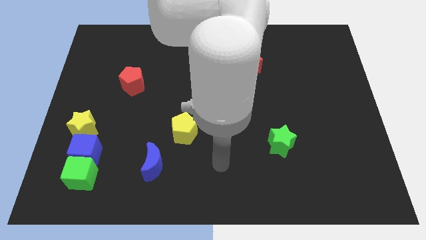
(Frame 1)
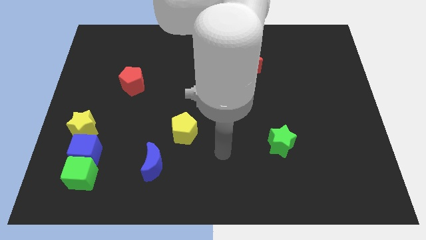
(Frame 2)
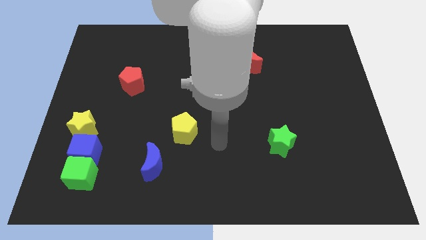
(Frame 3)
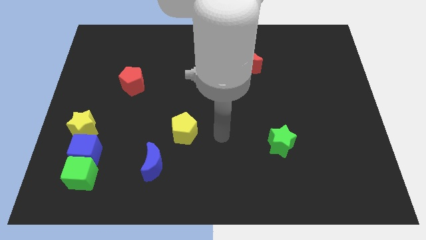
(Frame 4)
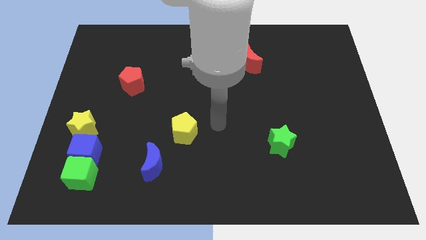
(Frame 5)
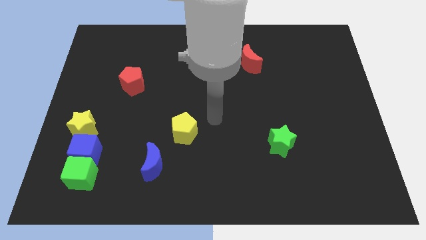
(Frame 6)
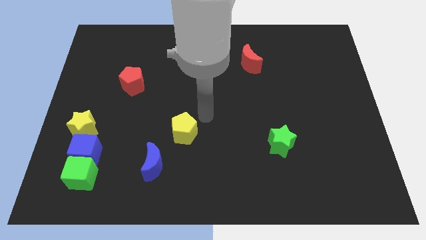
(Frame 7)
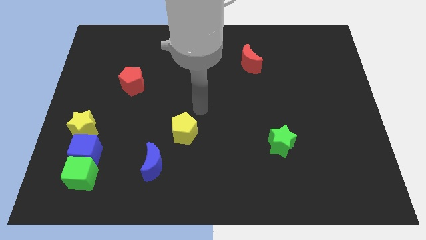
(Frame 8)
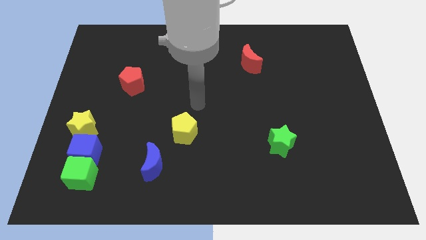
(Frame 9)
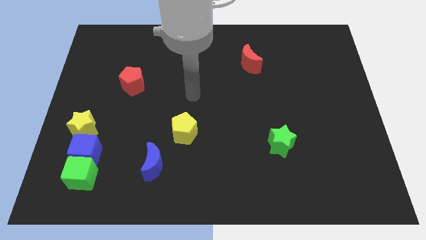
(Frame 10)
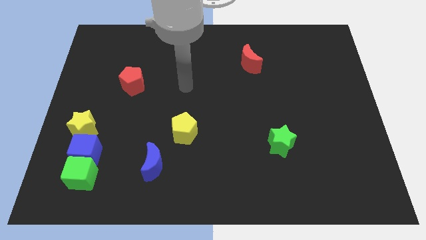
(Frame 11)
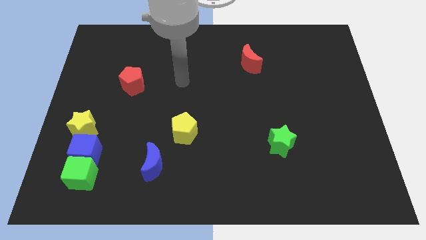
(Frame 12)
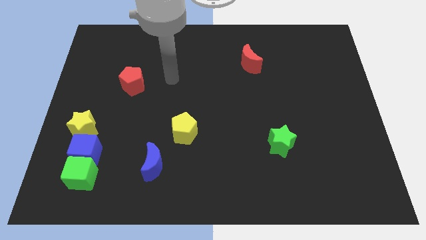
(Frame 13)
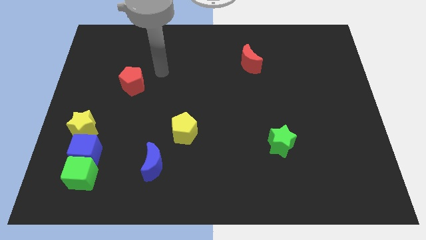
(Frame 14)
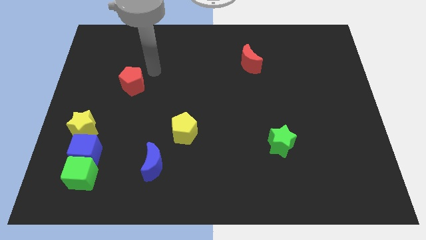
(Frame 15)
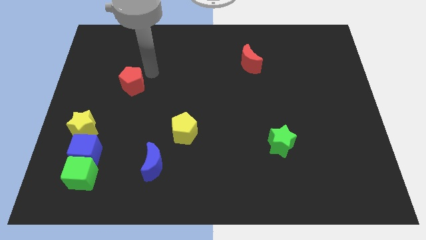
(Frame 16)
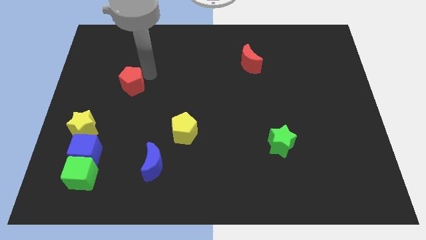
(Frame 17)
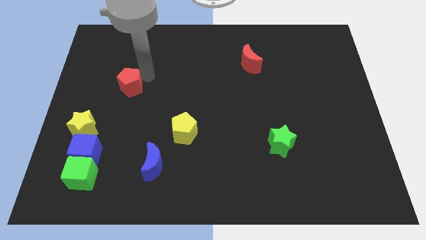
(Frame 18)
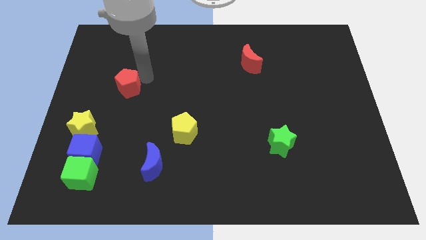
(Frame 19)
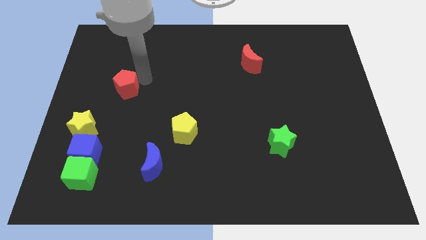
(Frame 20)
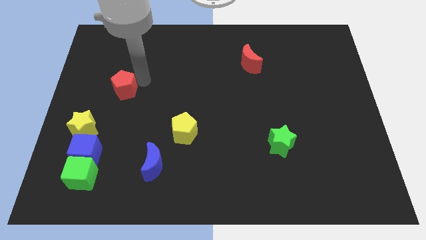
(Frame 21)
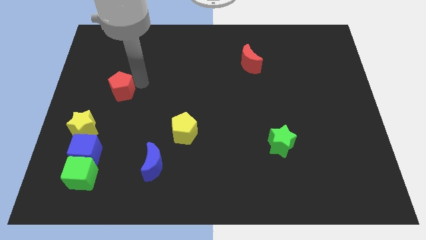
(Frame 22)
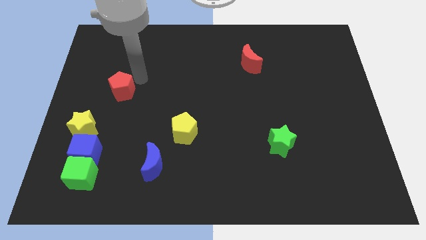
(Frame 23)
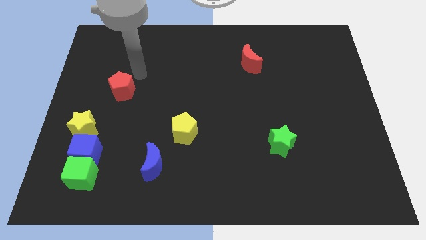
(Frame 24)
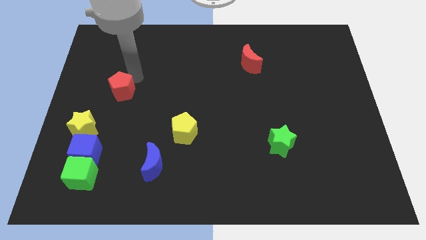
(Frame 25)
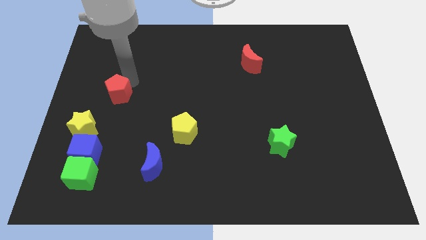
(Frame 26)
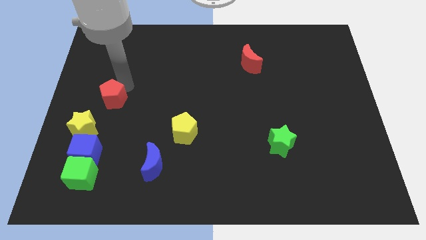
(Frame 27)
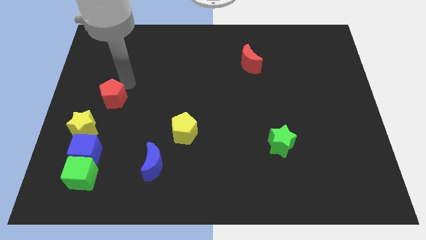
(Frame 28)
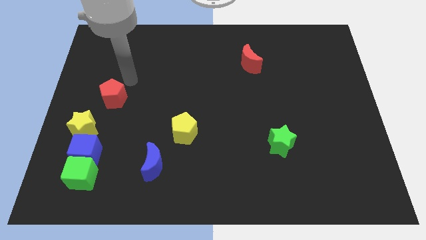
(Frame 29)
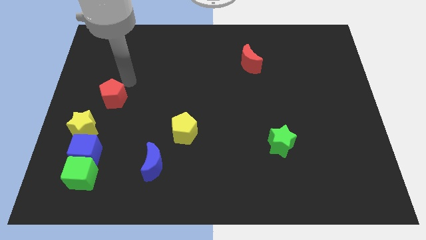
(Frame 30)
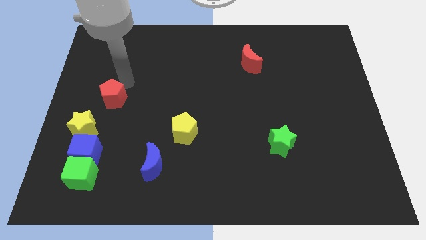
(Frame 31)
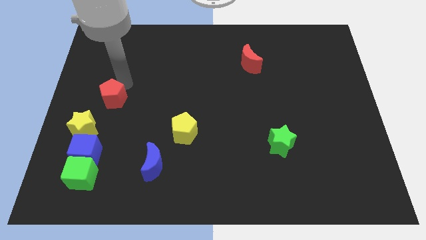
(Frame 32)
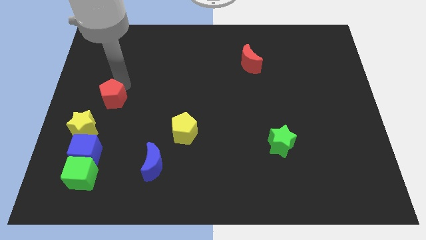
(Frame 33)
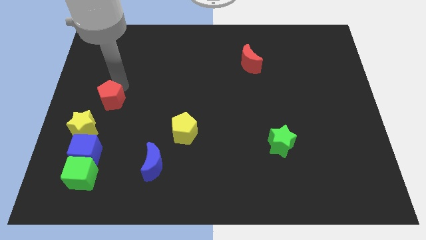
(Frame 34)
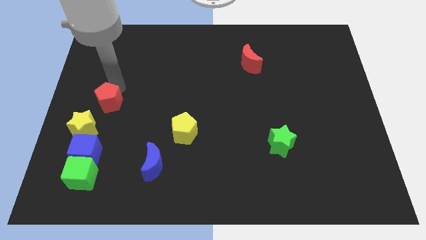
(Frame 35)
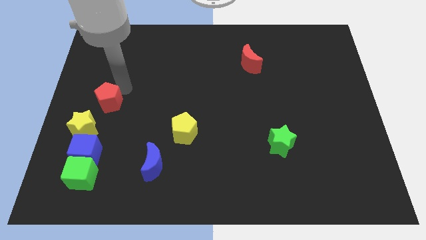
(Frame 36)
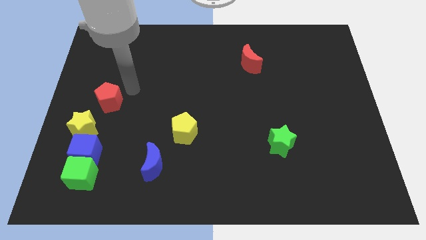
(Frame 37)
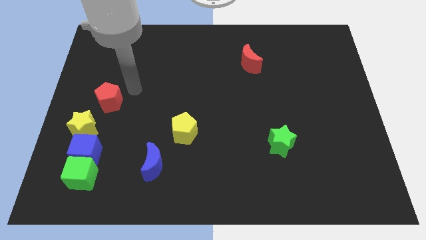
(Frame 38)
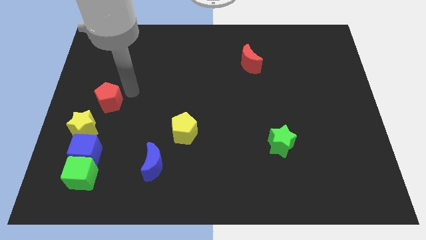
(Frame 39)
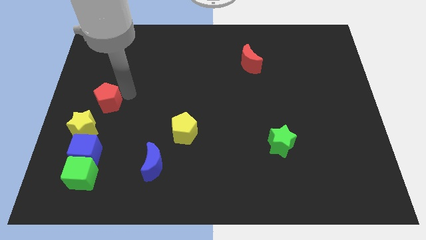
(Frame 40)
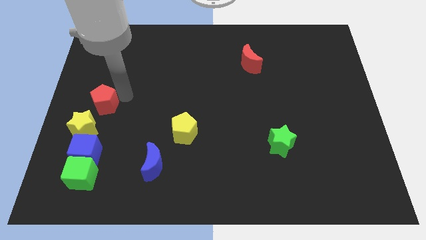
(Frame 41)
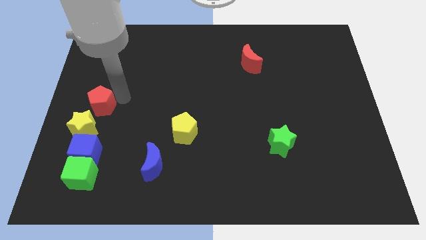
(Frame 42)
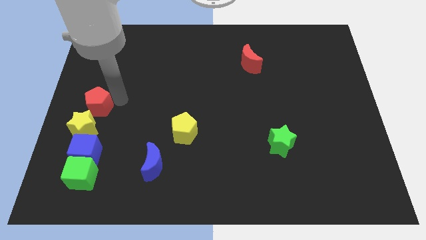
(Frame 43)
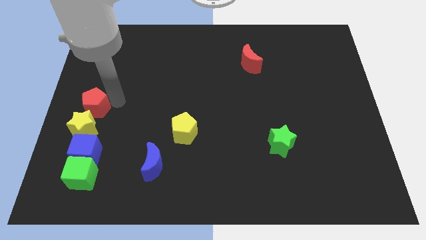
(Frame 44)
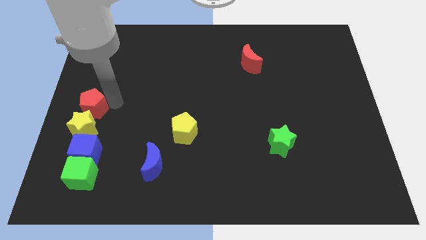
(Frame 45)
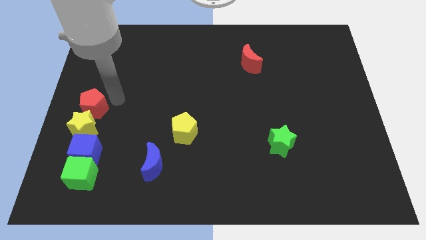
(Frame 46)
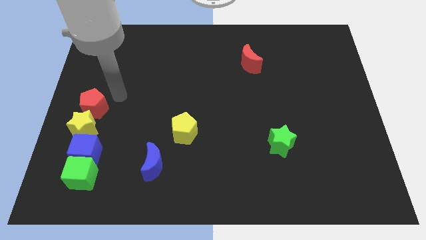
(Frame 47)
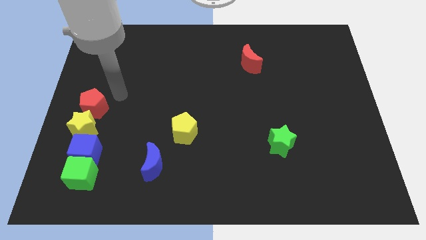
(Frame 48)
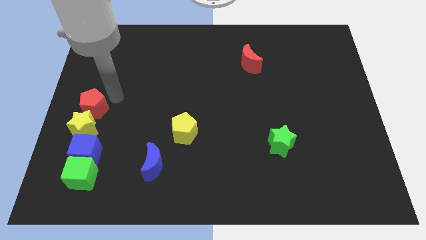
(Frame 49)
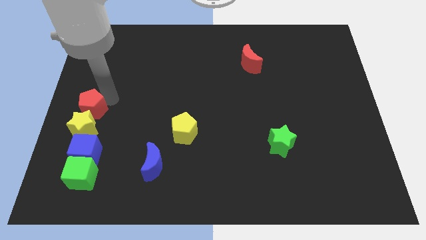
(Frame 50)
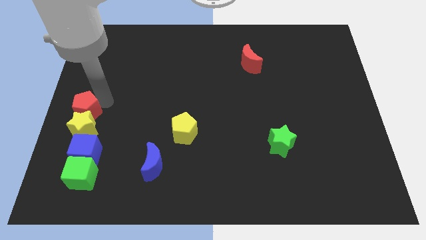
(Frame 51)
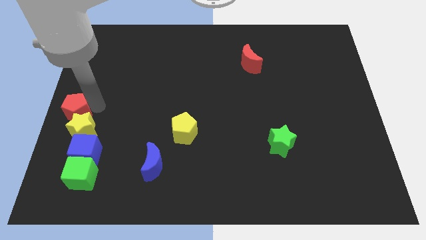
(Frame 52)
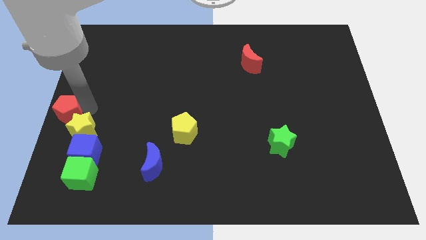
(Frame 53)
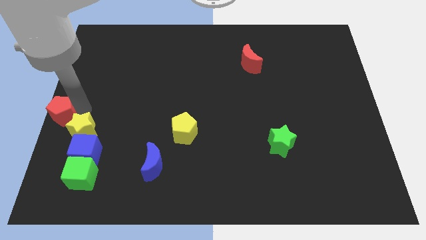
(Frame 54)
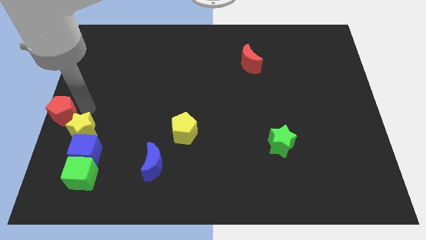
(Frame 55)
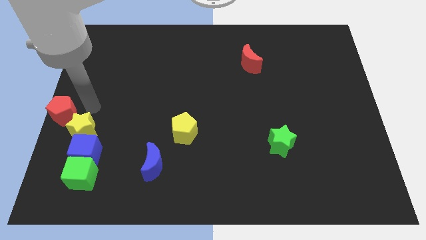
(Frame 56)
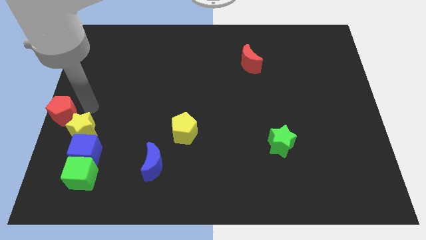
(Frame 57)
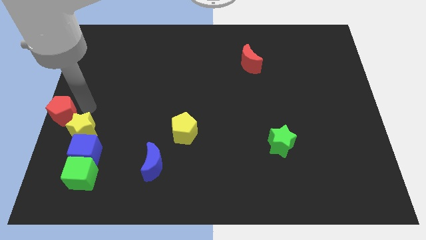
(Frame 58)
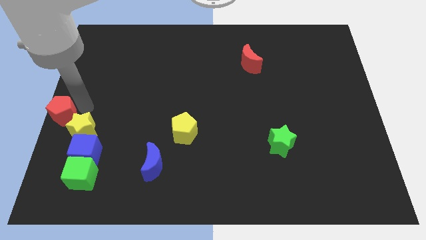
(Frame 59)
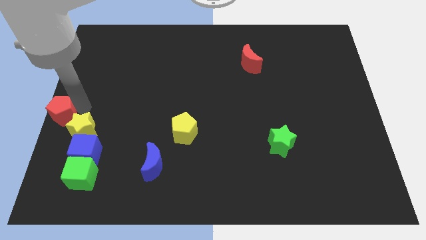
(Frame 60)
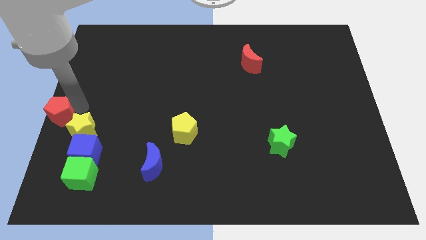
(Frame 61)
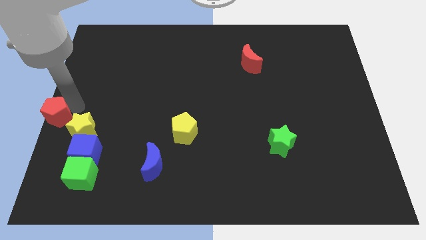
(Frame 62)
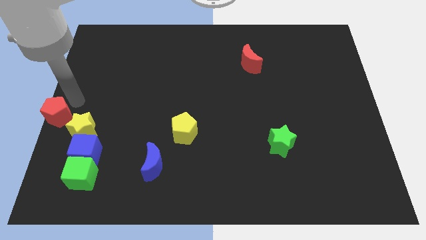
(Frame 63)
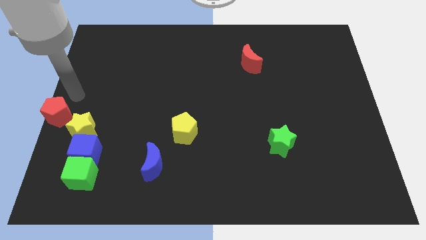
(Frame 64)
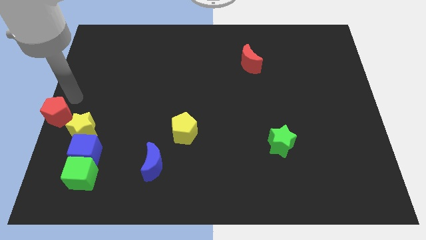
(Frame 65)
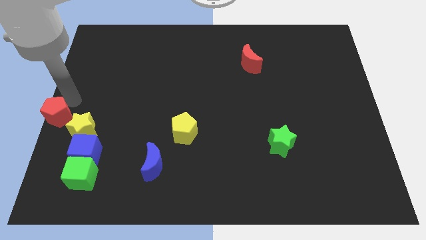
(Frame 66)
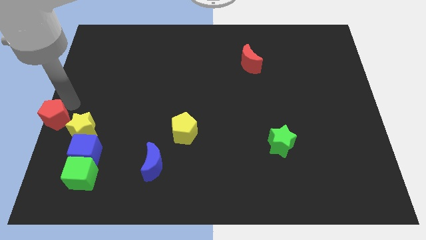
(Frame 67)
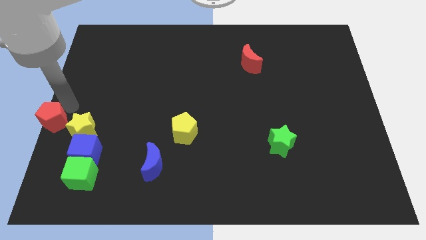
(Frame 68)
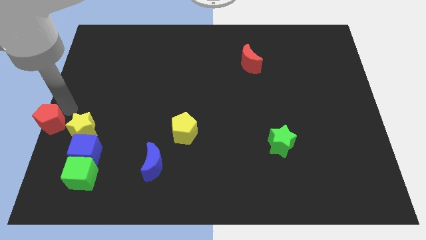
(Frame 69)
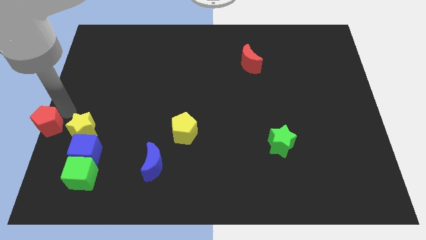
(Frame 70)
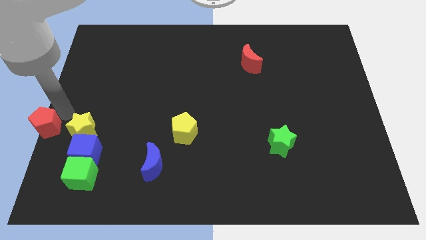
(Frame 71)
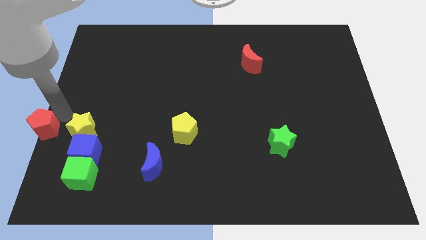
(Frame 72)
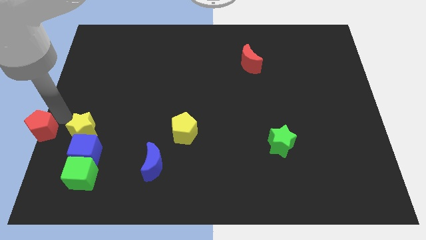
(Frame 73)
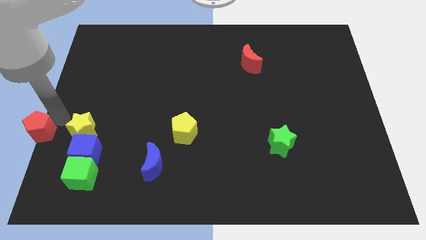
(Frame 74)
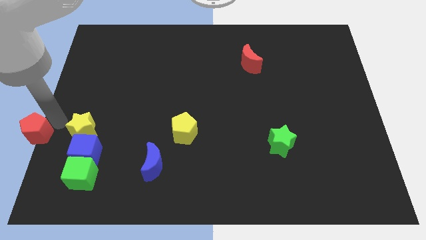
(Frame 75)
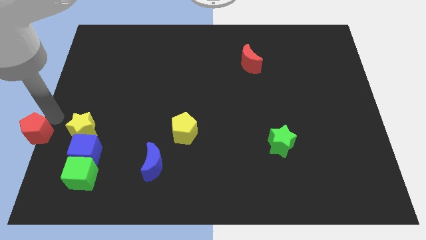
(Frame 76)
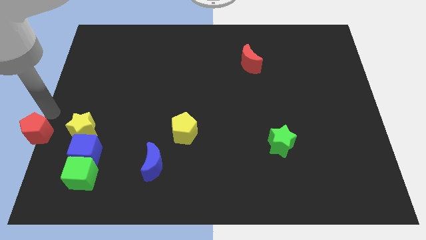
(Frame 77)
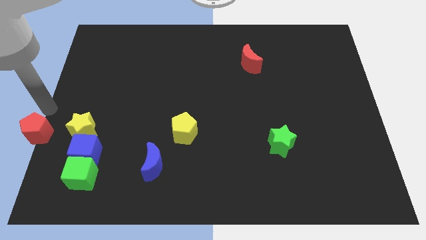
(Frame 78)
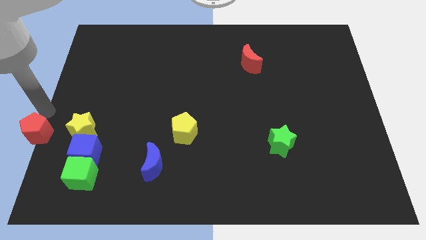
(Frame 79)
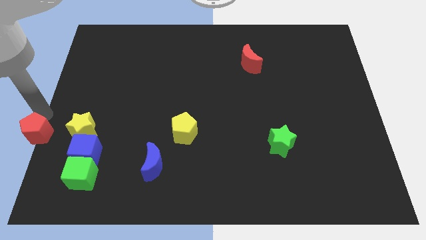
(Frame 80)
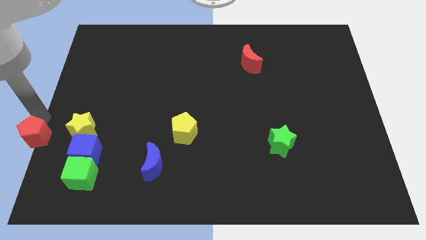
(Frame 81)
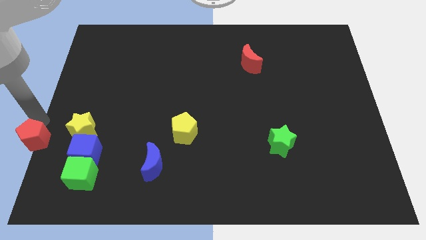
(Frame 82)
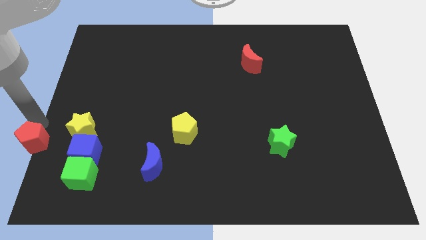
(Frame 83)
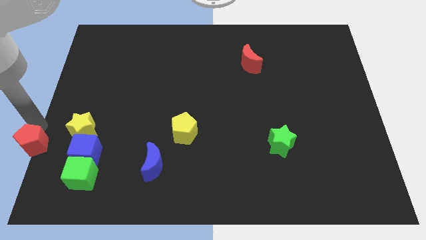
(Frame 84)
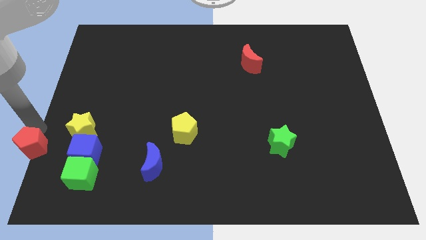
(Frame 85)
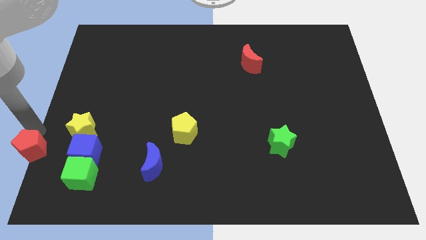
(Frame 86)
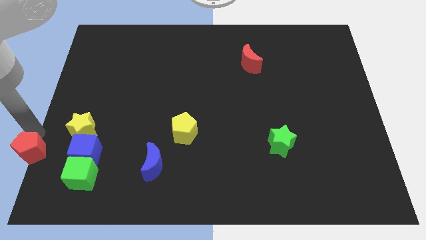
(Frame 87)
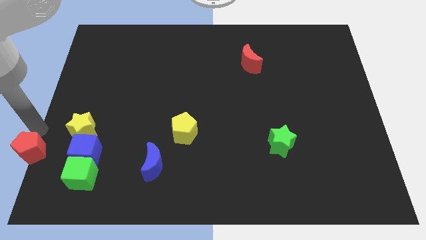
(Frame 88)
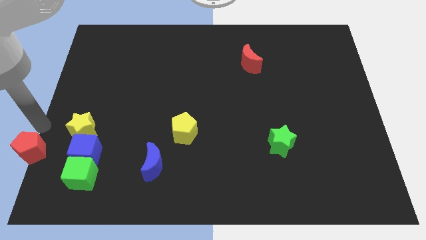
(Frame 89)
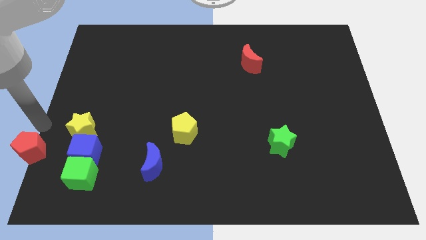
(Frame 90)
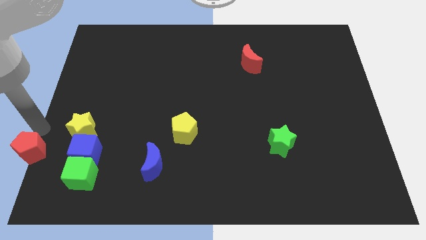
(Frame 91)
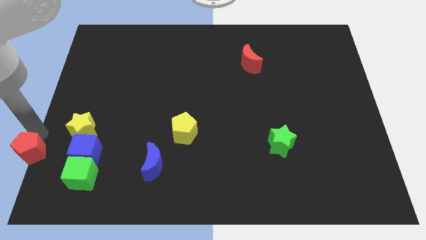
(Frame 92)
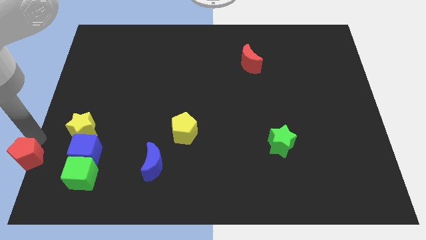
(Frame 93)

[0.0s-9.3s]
put the red pentagon to the bottom left corner
